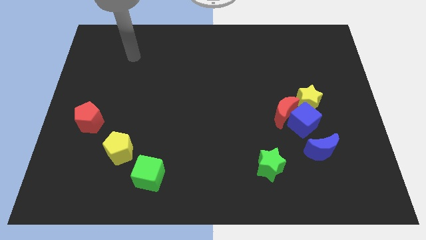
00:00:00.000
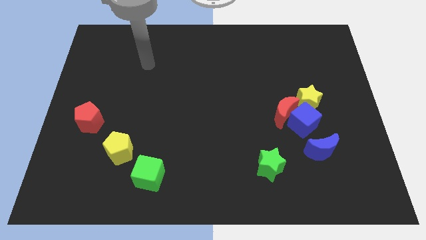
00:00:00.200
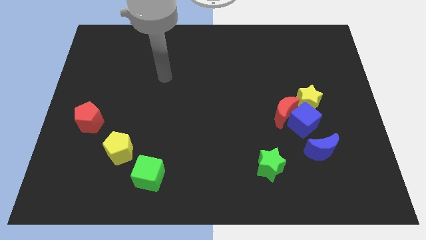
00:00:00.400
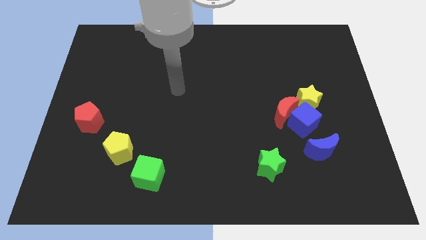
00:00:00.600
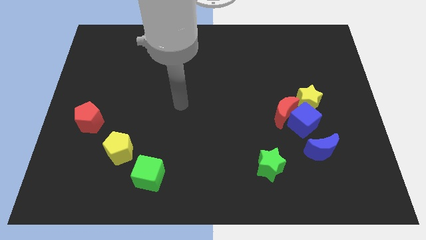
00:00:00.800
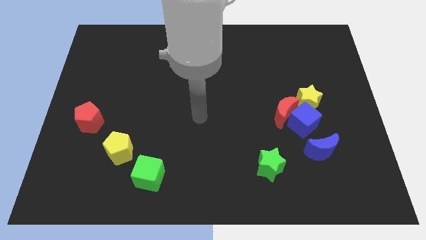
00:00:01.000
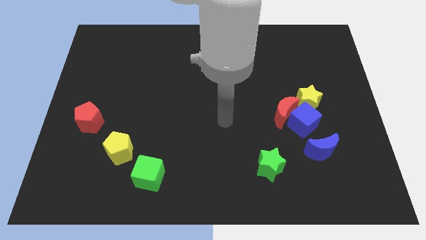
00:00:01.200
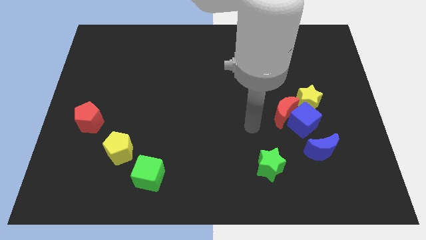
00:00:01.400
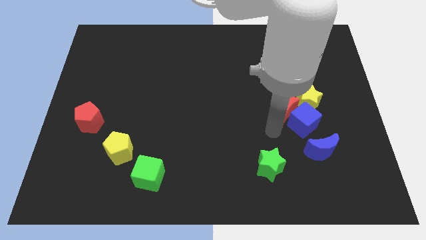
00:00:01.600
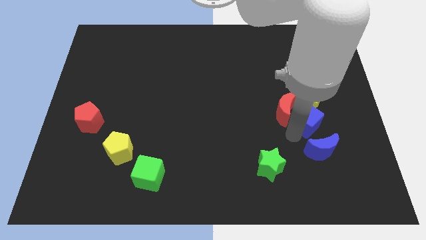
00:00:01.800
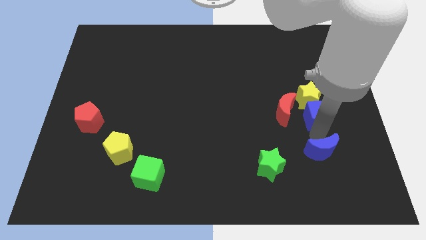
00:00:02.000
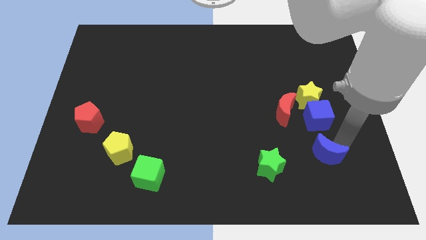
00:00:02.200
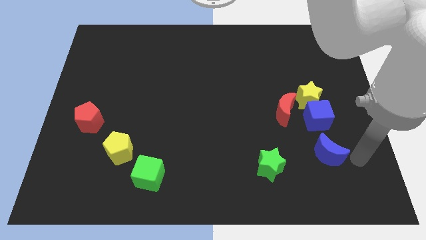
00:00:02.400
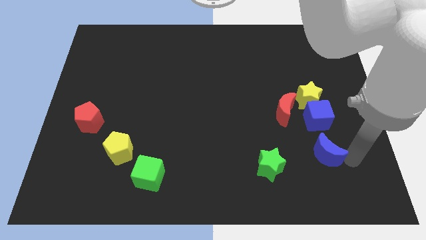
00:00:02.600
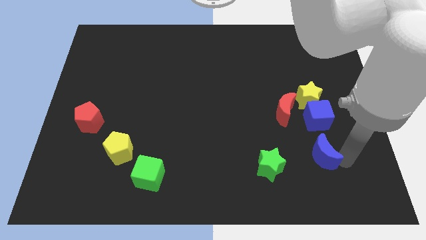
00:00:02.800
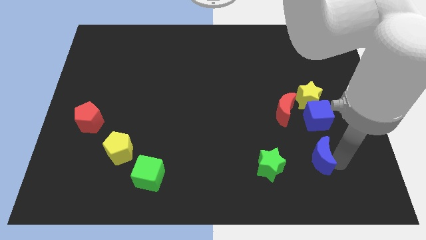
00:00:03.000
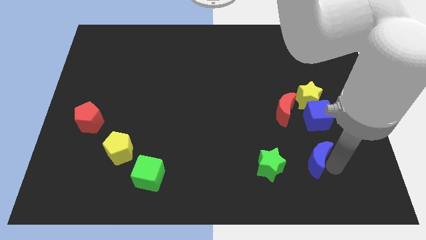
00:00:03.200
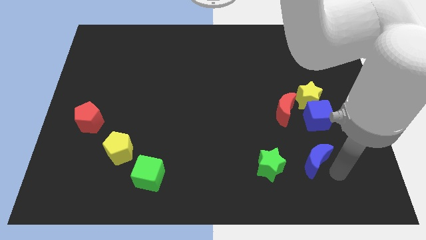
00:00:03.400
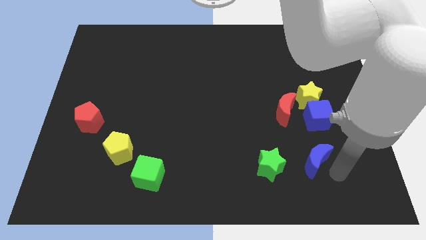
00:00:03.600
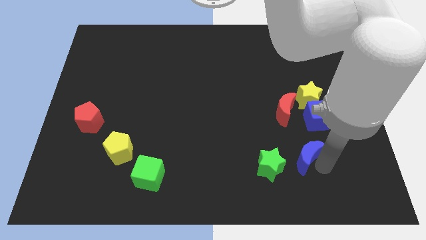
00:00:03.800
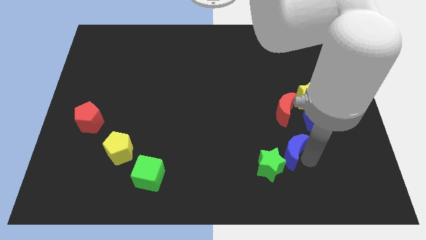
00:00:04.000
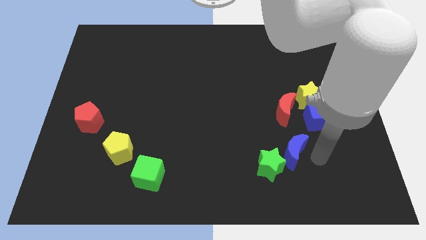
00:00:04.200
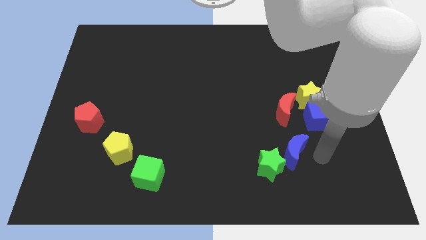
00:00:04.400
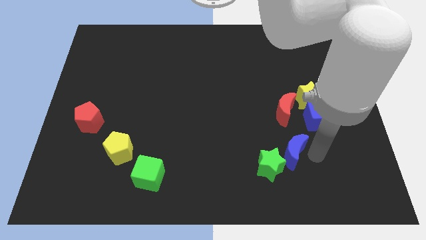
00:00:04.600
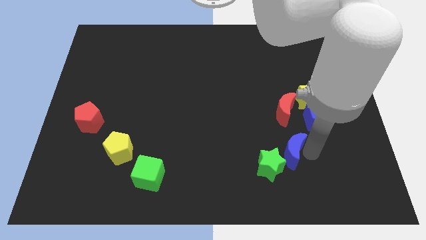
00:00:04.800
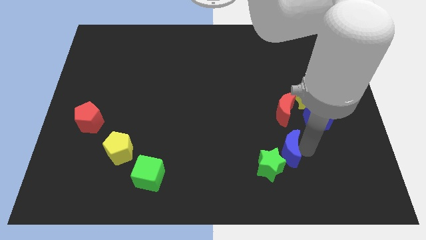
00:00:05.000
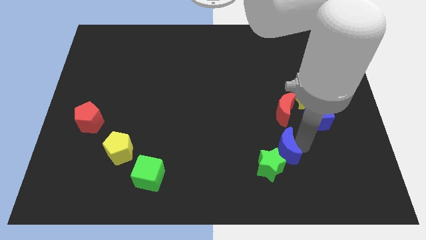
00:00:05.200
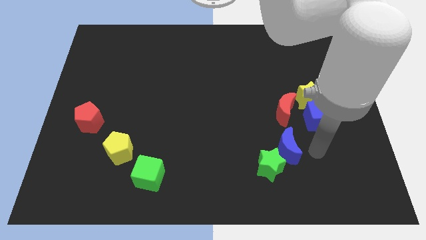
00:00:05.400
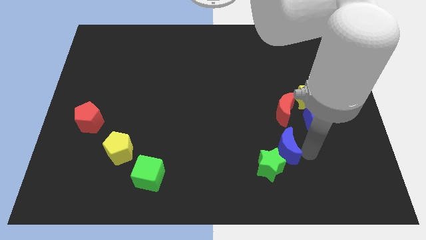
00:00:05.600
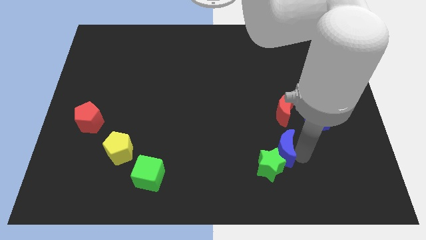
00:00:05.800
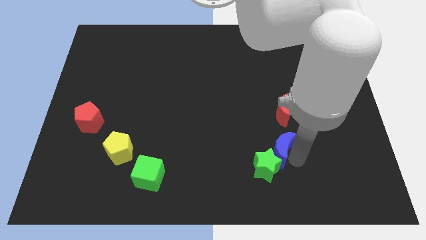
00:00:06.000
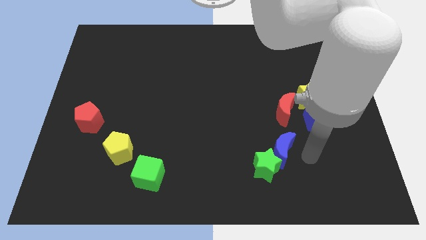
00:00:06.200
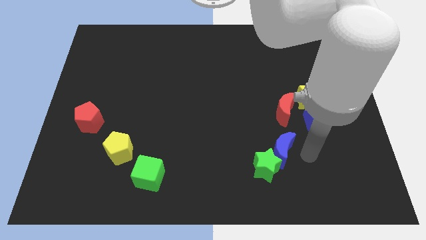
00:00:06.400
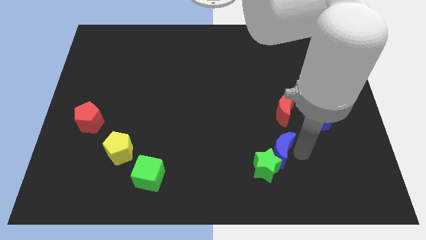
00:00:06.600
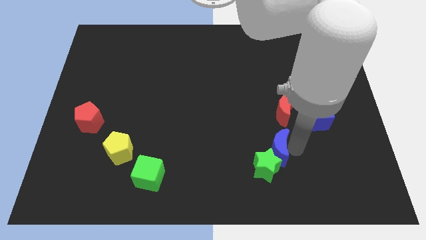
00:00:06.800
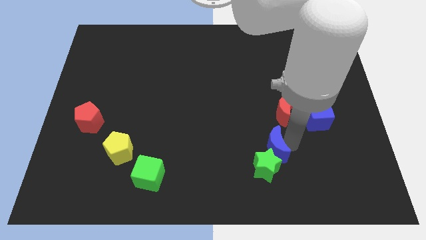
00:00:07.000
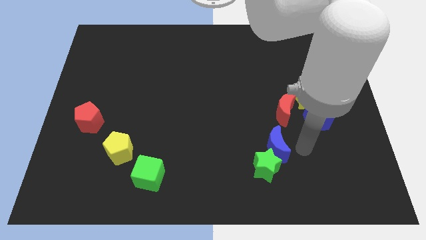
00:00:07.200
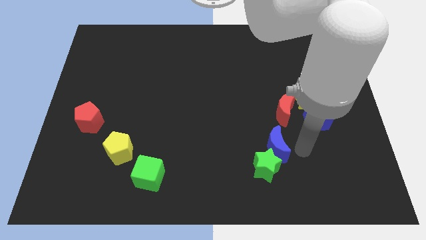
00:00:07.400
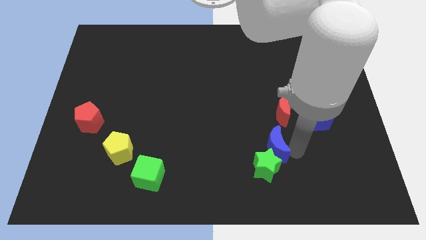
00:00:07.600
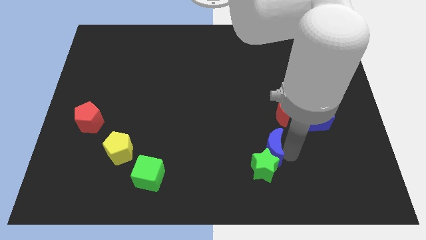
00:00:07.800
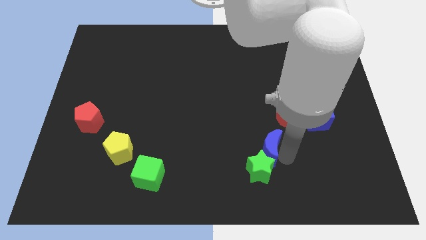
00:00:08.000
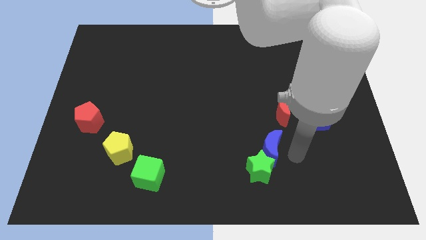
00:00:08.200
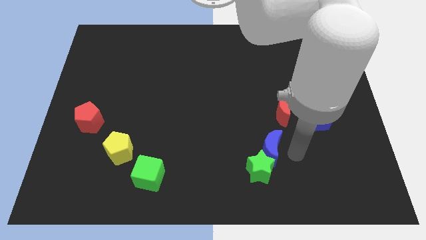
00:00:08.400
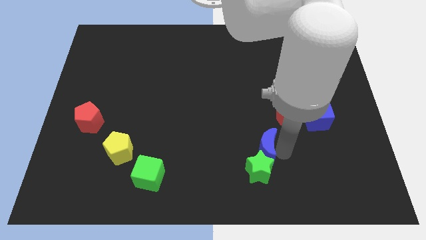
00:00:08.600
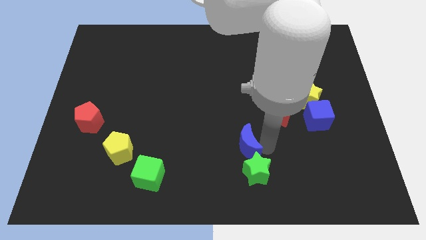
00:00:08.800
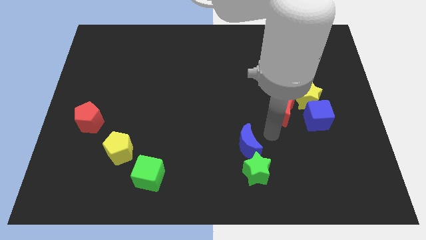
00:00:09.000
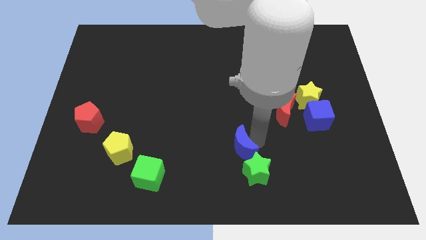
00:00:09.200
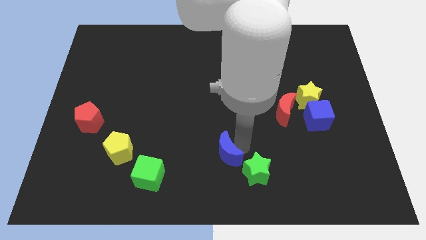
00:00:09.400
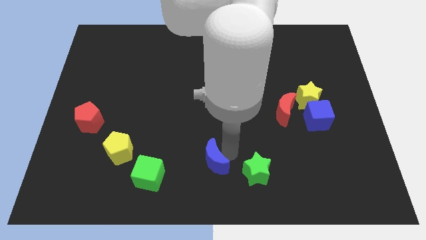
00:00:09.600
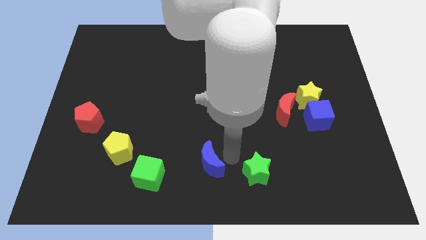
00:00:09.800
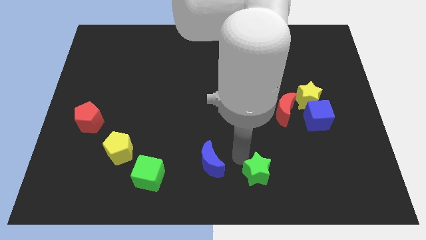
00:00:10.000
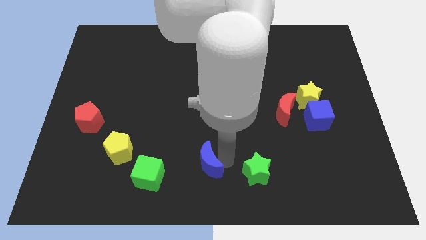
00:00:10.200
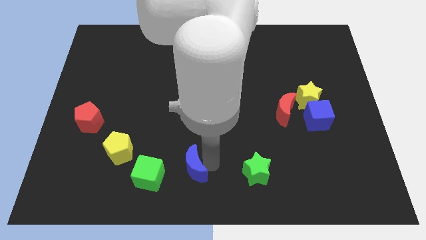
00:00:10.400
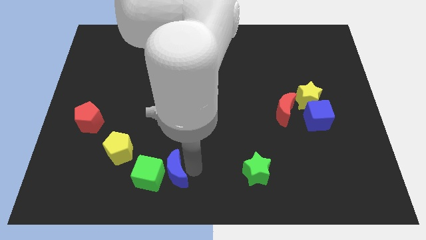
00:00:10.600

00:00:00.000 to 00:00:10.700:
move the blue moon to the green cube

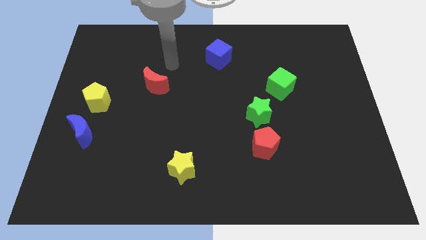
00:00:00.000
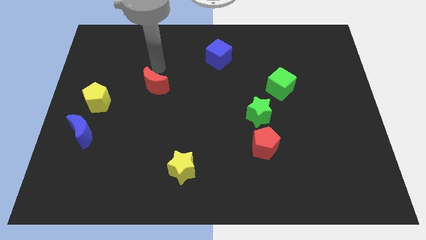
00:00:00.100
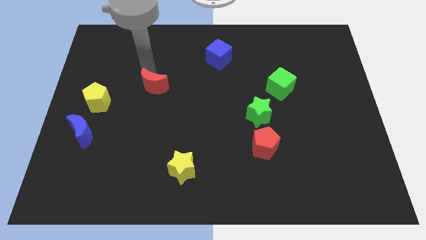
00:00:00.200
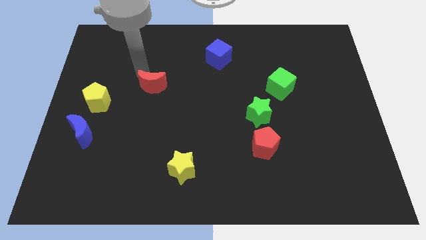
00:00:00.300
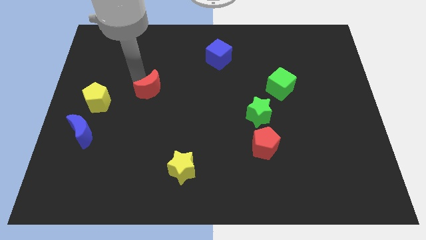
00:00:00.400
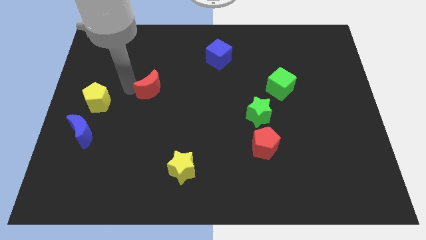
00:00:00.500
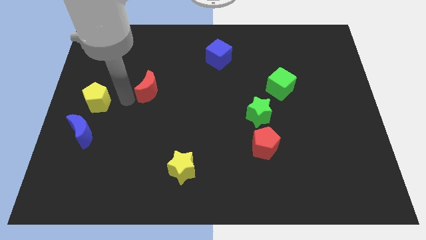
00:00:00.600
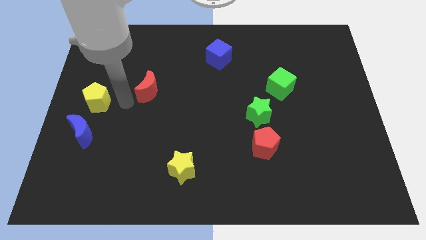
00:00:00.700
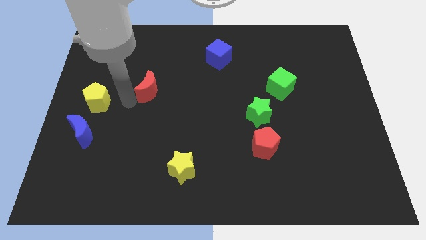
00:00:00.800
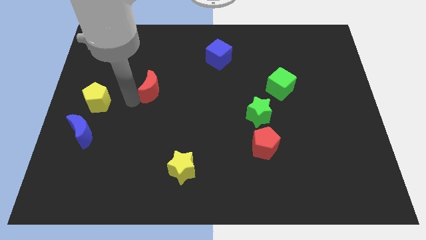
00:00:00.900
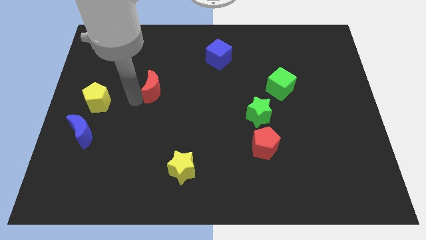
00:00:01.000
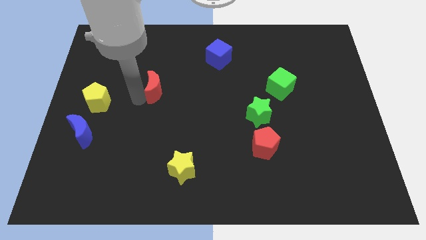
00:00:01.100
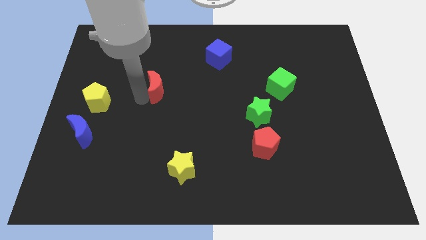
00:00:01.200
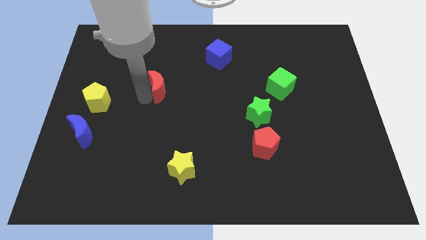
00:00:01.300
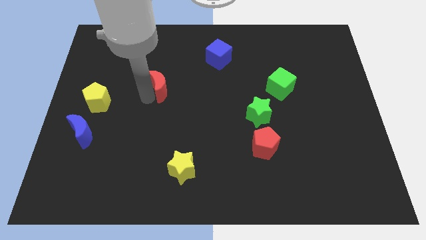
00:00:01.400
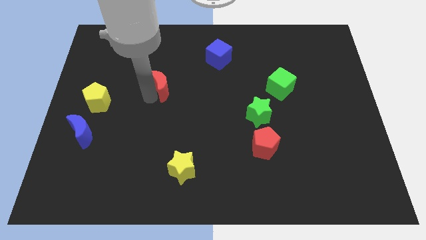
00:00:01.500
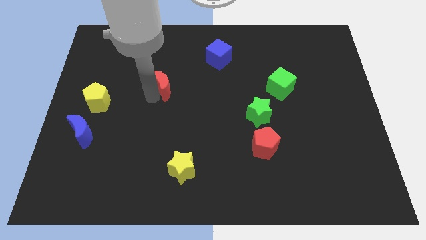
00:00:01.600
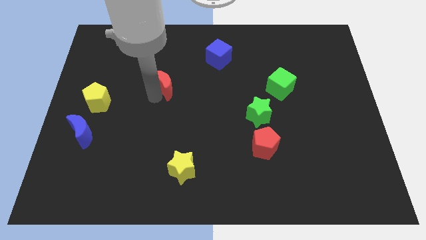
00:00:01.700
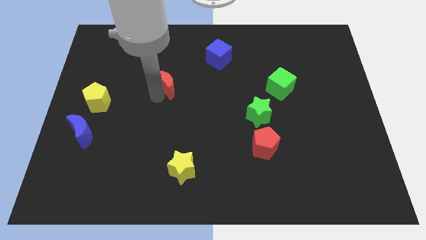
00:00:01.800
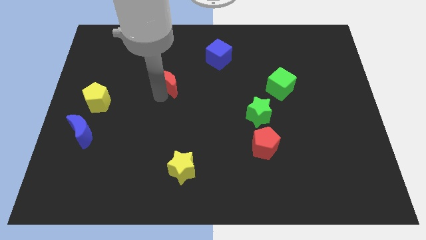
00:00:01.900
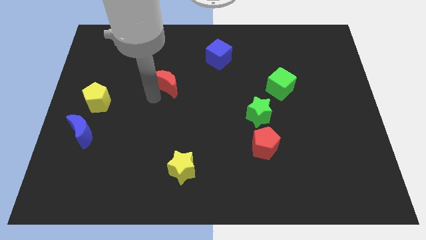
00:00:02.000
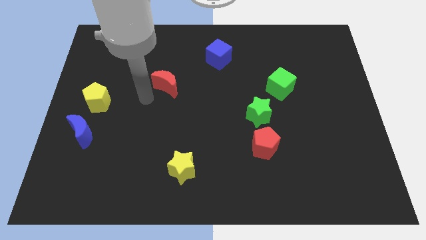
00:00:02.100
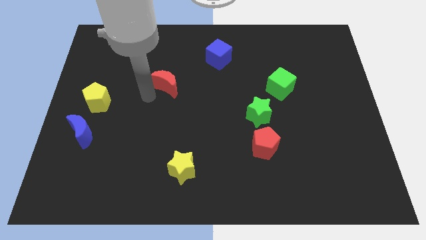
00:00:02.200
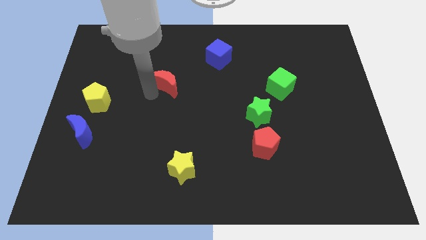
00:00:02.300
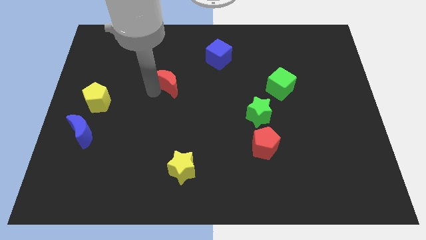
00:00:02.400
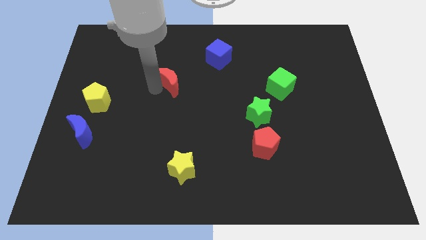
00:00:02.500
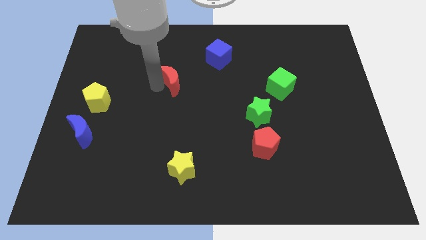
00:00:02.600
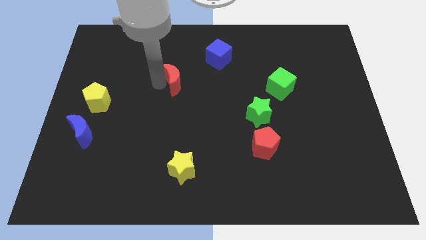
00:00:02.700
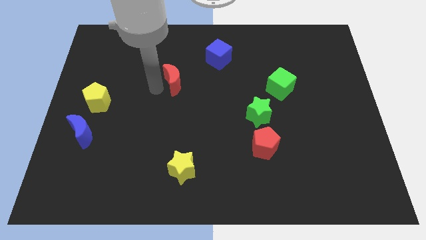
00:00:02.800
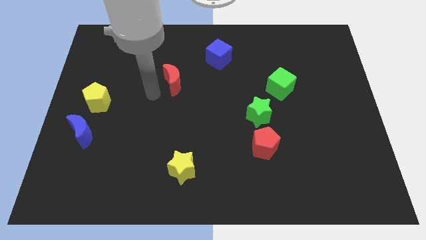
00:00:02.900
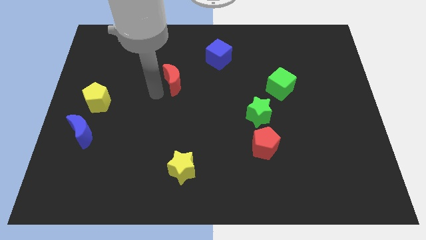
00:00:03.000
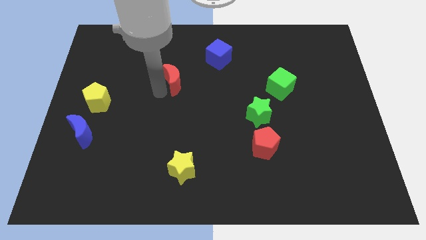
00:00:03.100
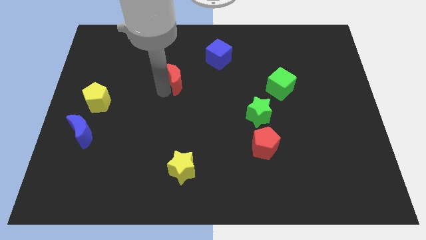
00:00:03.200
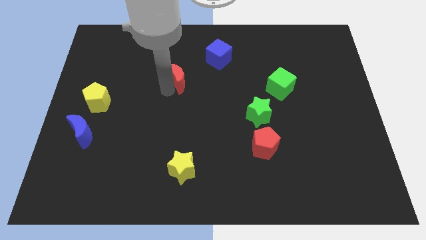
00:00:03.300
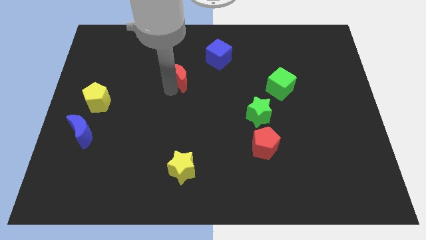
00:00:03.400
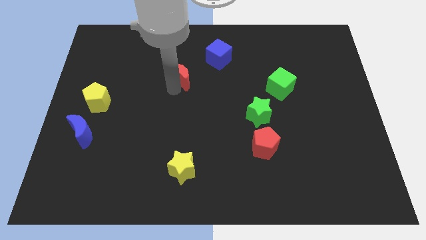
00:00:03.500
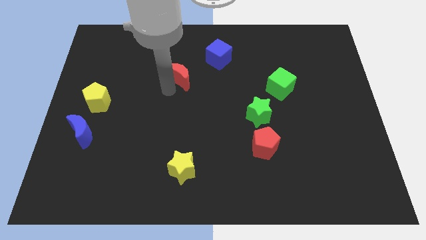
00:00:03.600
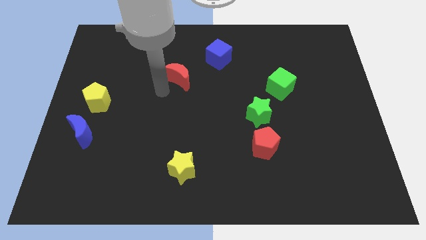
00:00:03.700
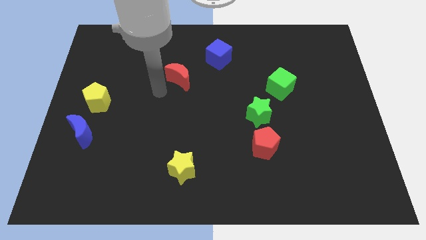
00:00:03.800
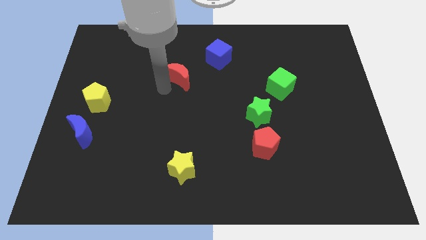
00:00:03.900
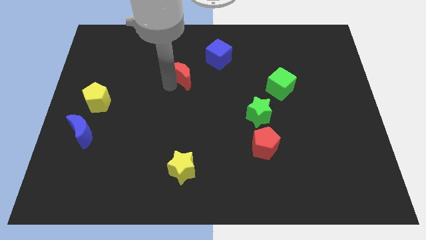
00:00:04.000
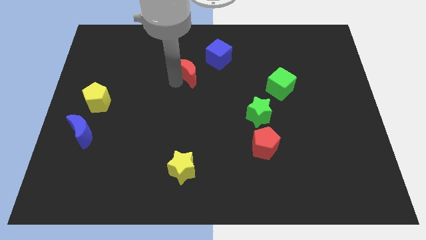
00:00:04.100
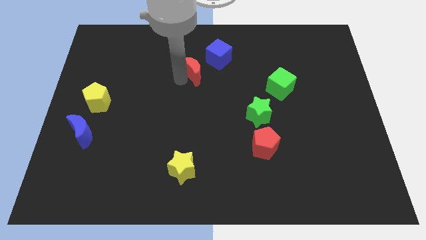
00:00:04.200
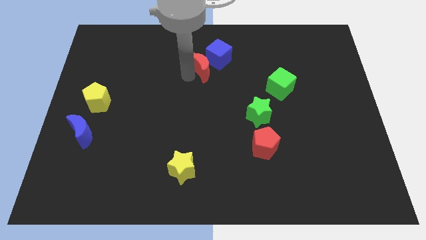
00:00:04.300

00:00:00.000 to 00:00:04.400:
move the red moon close to the blue cube
